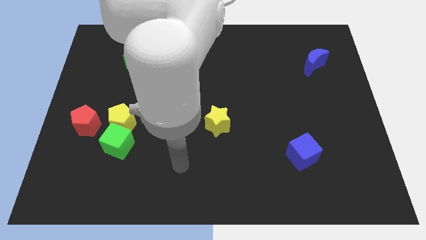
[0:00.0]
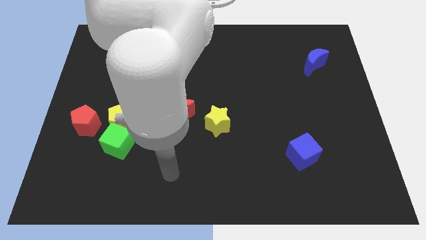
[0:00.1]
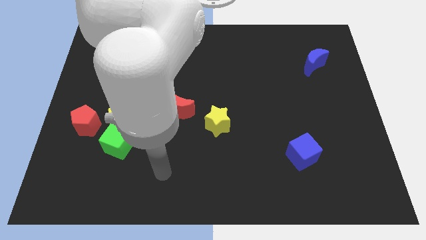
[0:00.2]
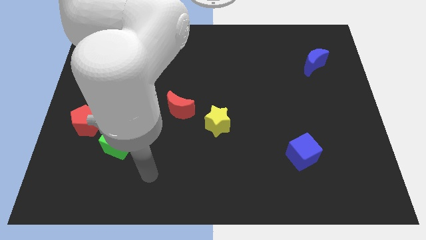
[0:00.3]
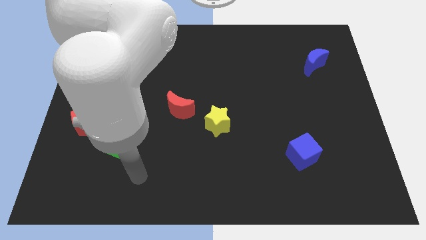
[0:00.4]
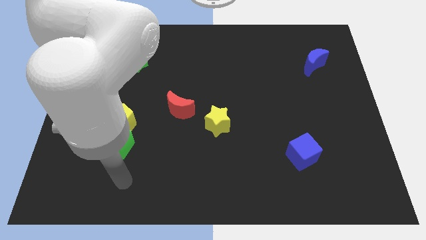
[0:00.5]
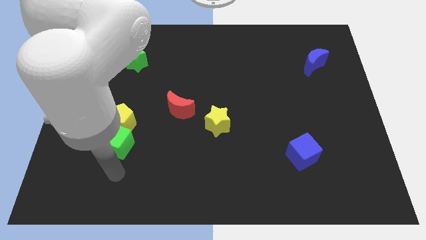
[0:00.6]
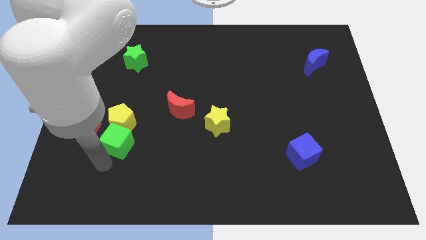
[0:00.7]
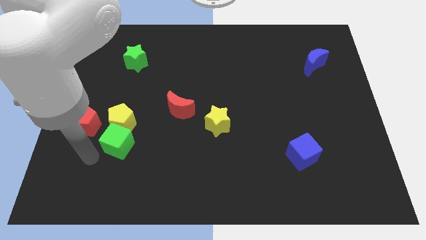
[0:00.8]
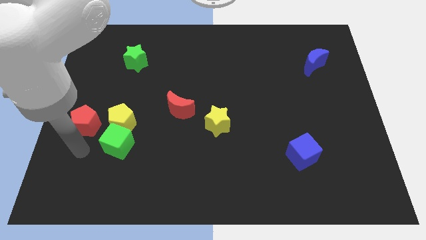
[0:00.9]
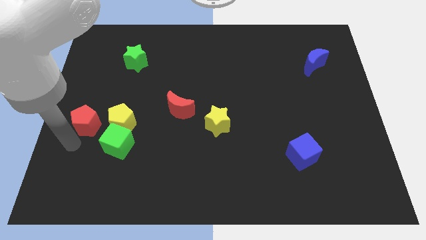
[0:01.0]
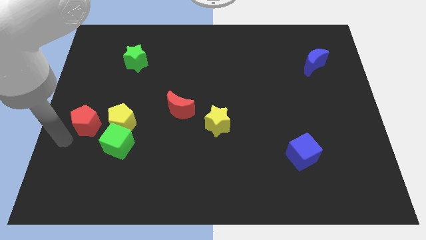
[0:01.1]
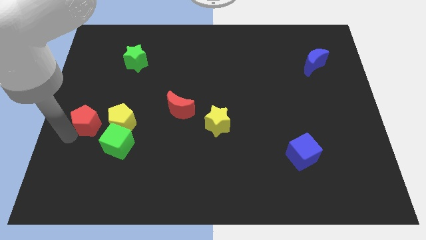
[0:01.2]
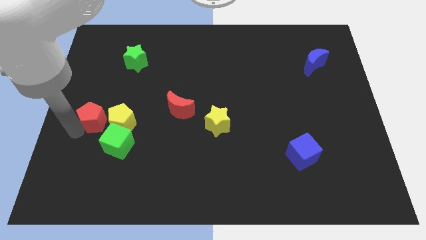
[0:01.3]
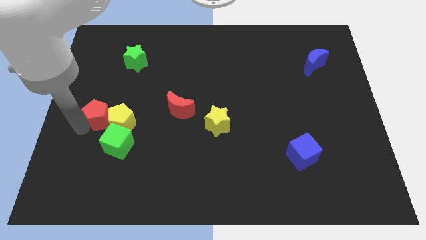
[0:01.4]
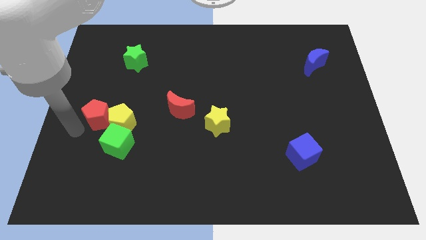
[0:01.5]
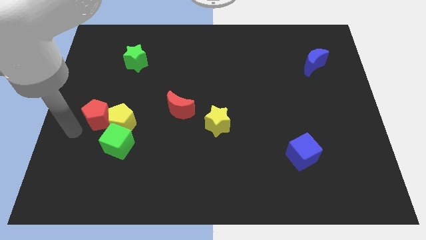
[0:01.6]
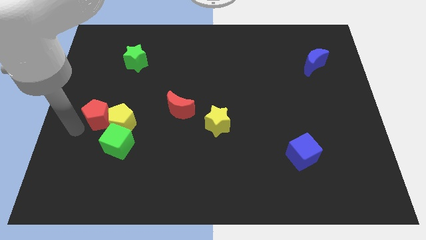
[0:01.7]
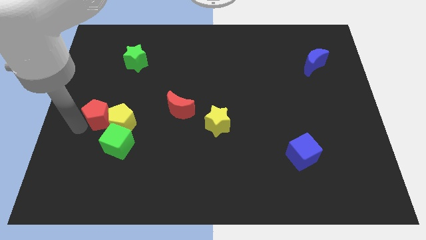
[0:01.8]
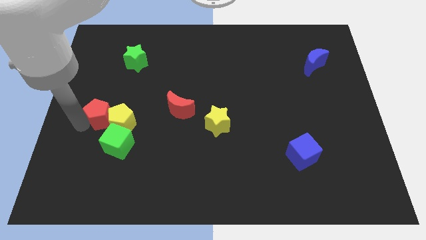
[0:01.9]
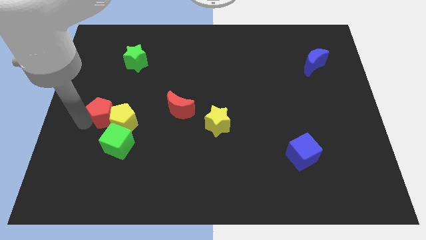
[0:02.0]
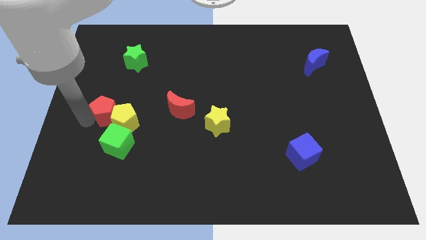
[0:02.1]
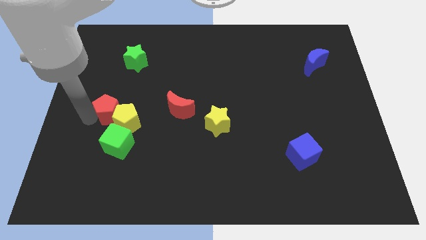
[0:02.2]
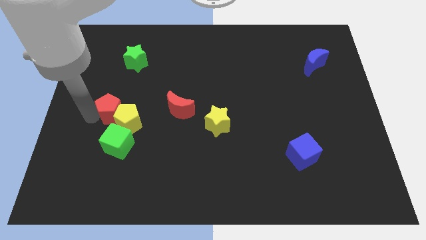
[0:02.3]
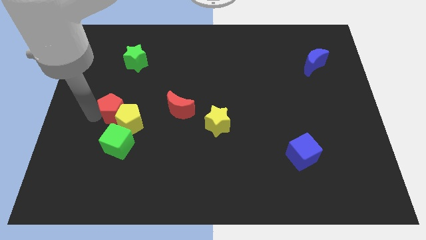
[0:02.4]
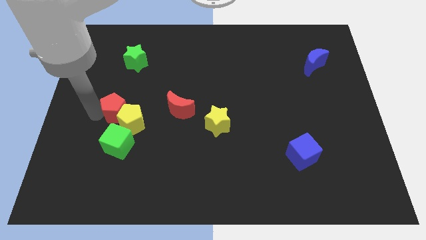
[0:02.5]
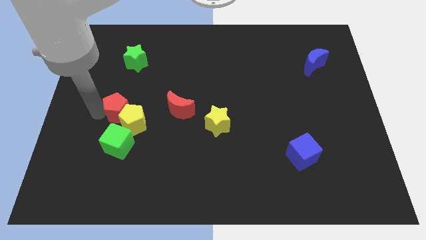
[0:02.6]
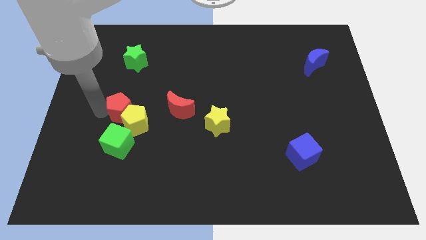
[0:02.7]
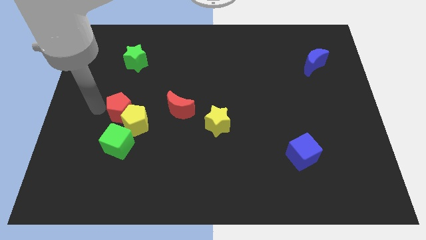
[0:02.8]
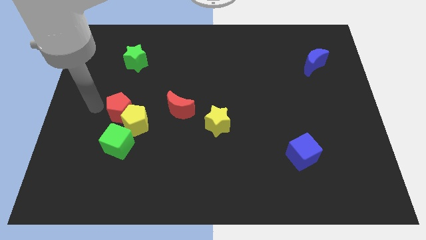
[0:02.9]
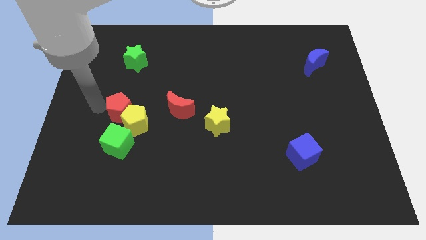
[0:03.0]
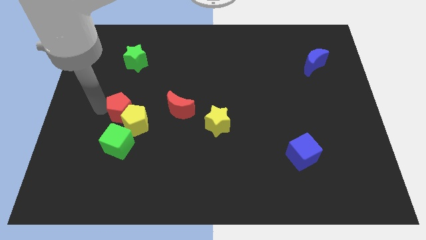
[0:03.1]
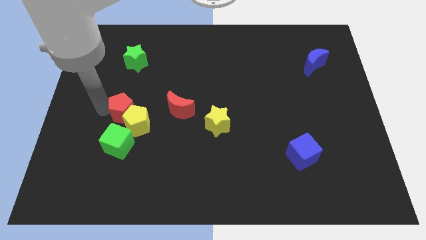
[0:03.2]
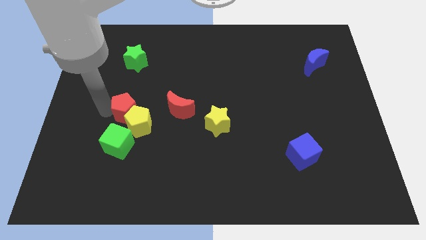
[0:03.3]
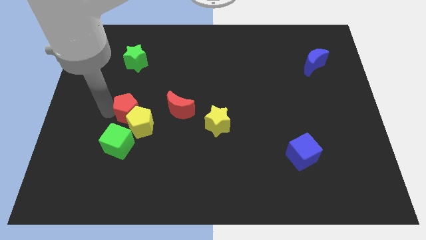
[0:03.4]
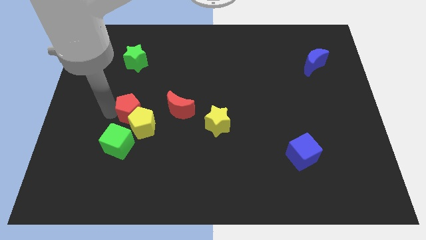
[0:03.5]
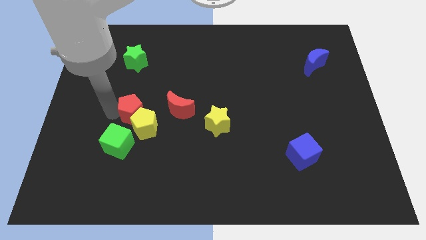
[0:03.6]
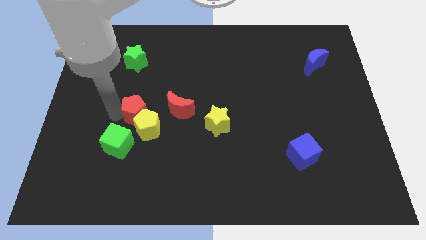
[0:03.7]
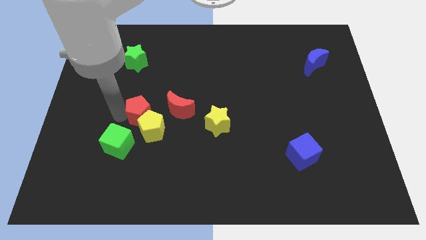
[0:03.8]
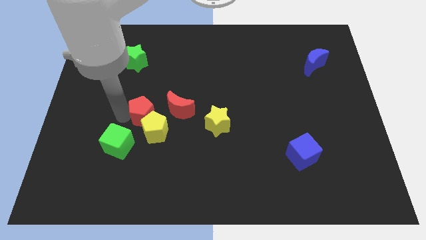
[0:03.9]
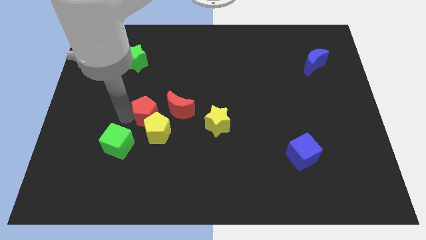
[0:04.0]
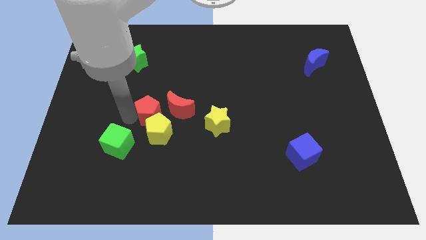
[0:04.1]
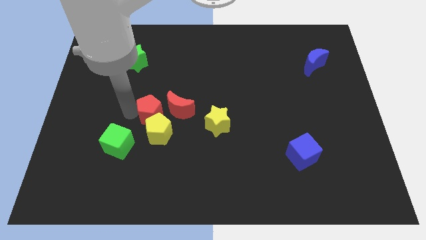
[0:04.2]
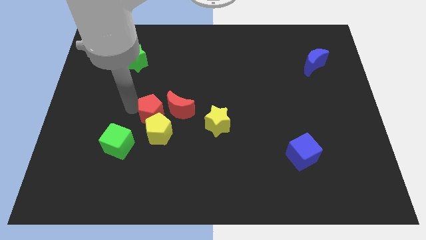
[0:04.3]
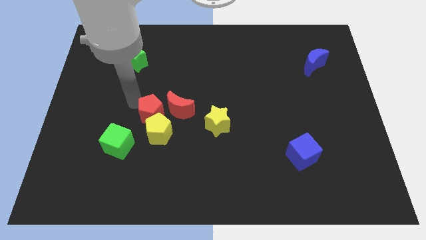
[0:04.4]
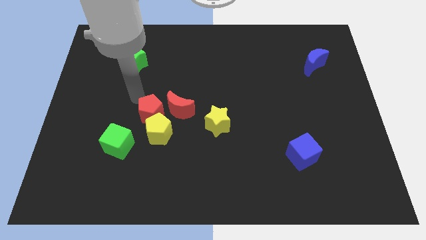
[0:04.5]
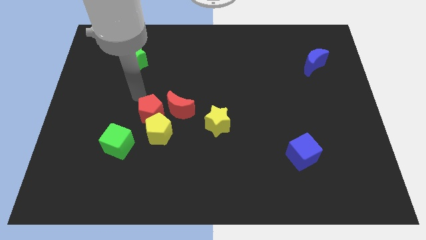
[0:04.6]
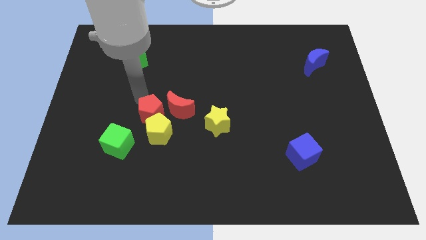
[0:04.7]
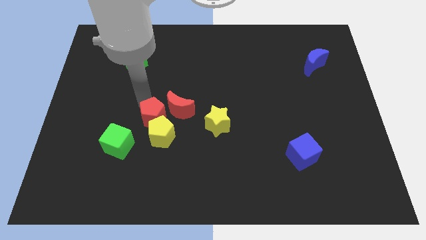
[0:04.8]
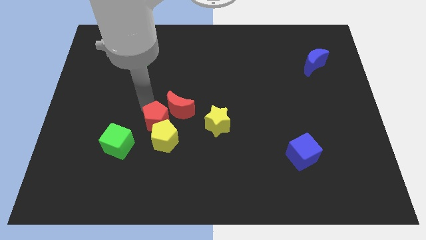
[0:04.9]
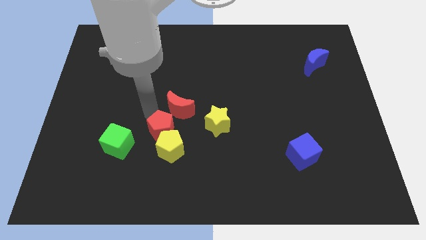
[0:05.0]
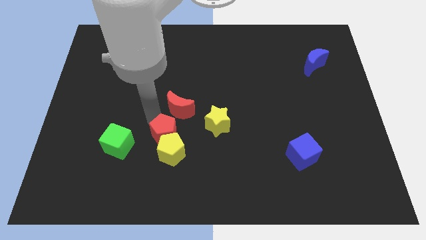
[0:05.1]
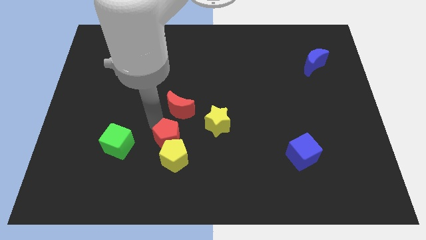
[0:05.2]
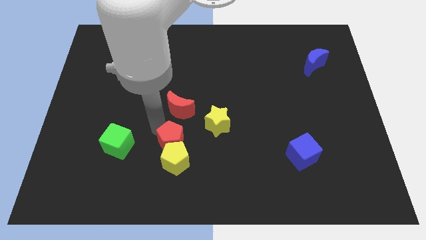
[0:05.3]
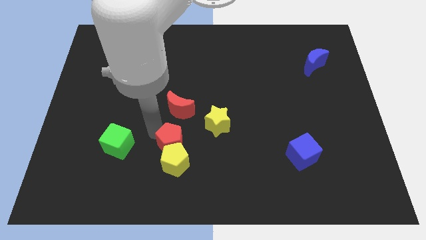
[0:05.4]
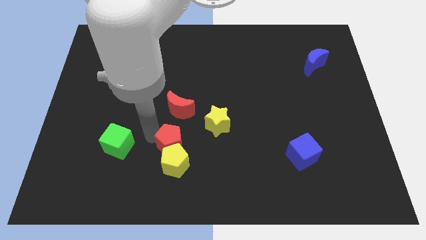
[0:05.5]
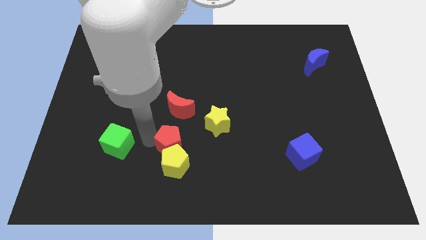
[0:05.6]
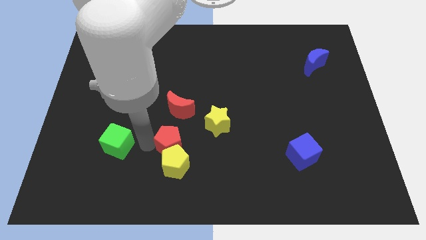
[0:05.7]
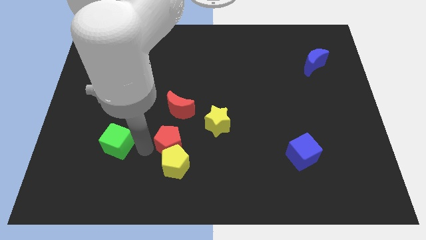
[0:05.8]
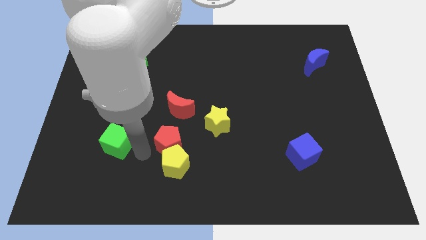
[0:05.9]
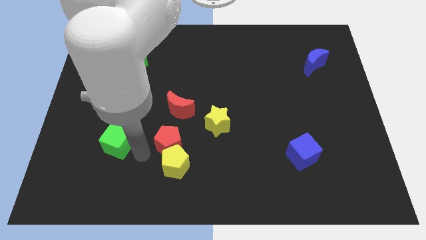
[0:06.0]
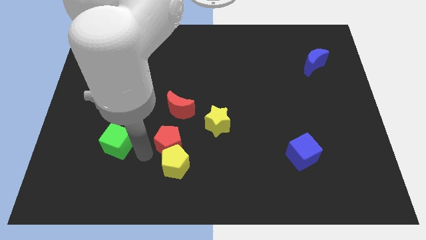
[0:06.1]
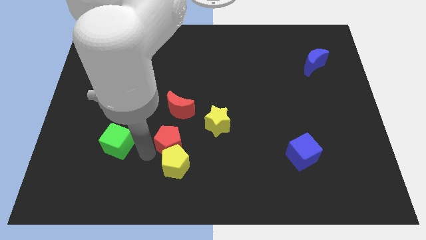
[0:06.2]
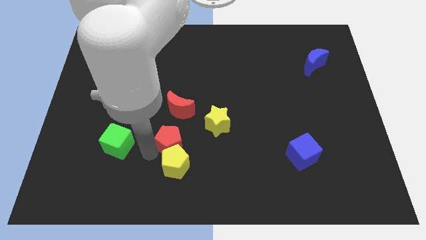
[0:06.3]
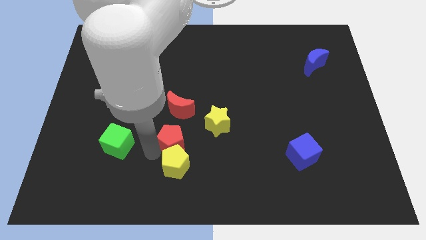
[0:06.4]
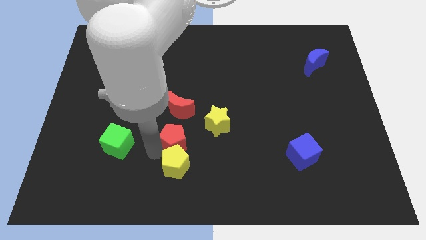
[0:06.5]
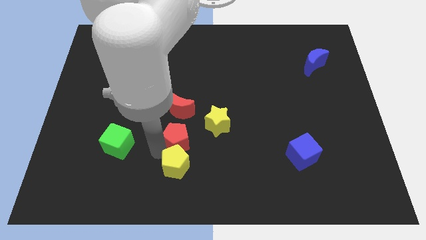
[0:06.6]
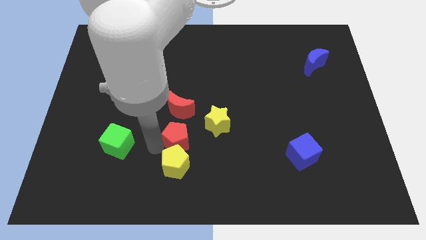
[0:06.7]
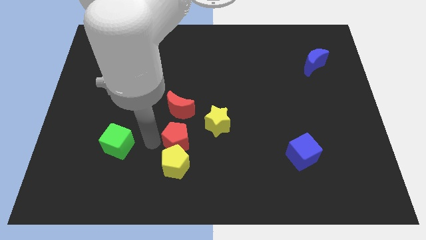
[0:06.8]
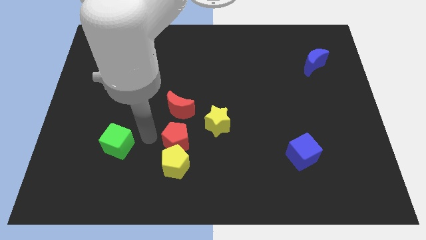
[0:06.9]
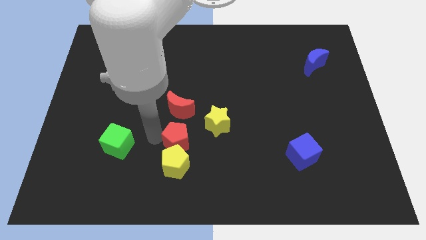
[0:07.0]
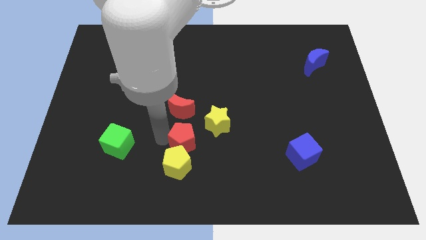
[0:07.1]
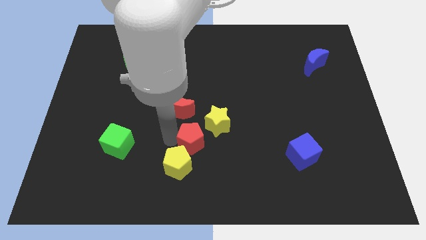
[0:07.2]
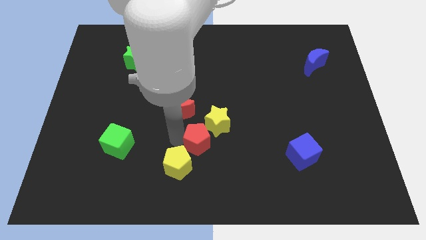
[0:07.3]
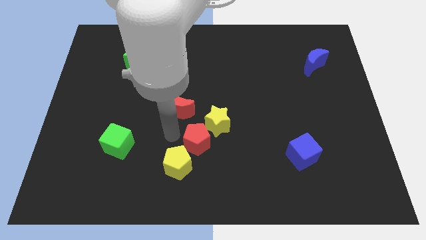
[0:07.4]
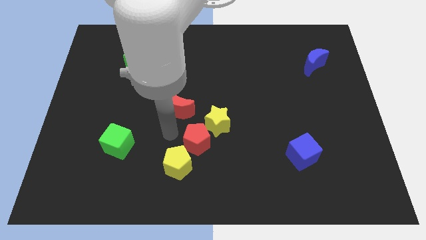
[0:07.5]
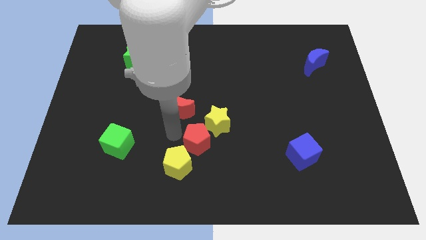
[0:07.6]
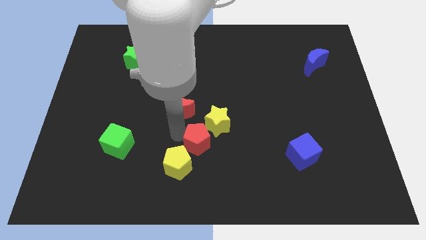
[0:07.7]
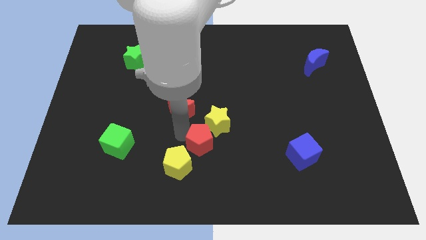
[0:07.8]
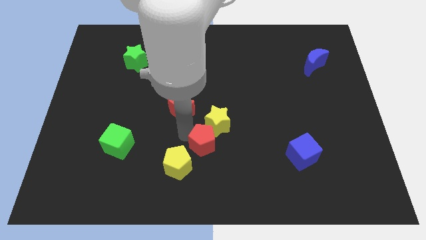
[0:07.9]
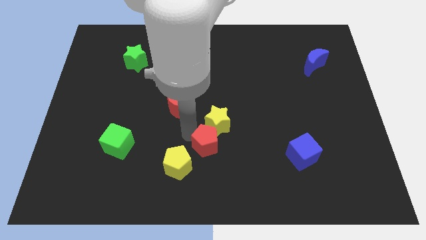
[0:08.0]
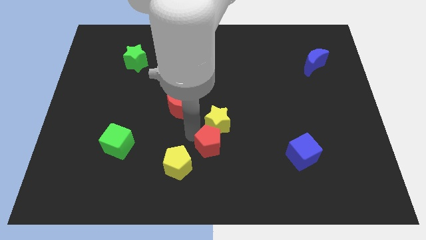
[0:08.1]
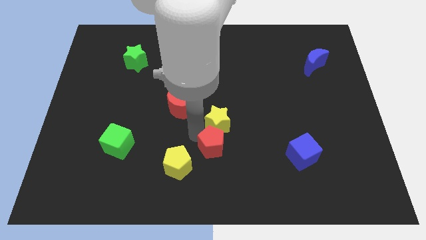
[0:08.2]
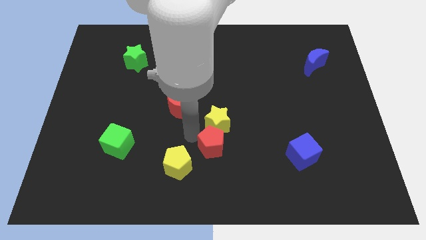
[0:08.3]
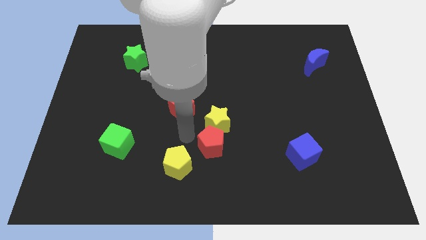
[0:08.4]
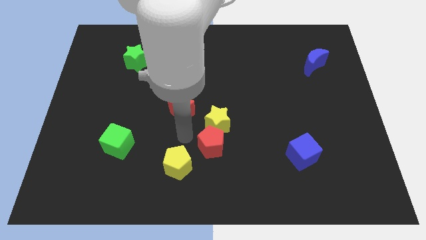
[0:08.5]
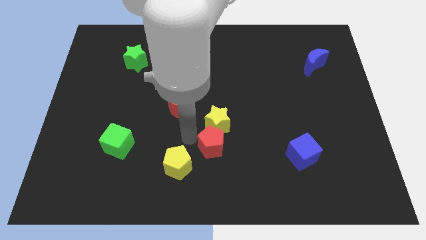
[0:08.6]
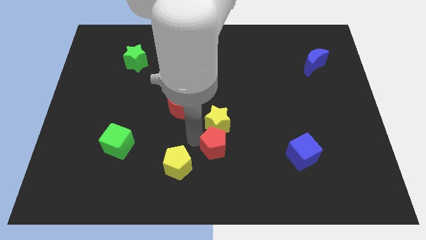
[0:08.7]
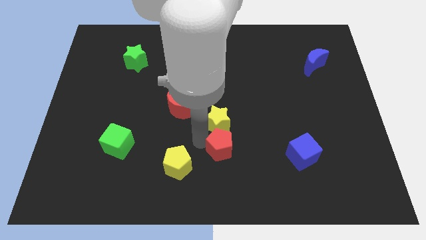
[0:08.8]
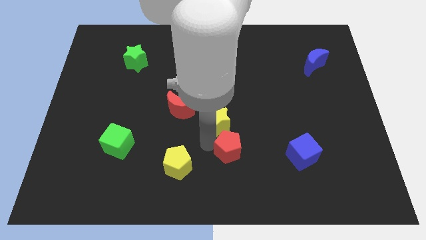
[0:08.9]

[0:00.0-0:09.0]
slide the red pentagon left of the blue cube
